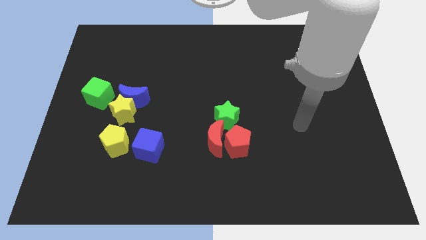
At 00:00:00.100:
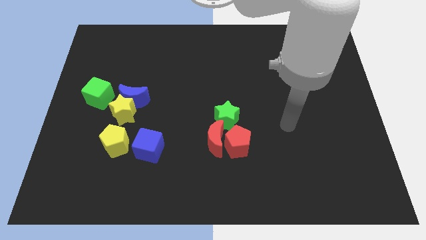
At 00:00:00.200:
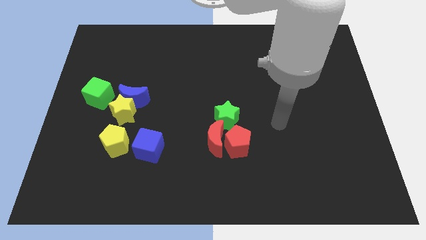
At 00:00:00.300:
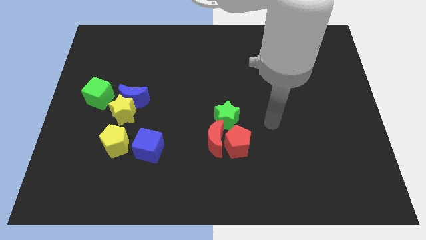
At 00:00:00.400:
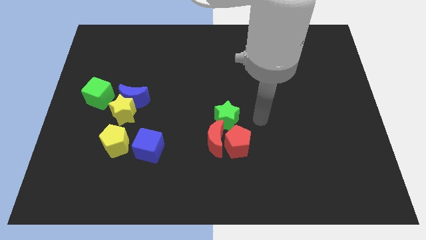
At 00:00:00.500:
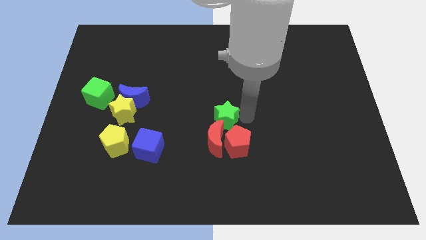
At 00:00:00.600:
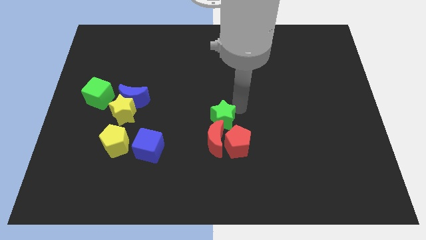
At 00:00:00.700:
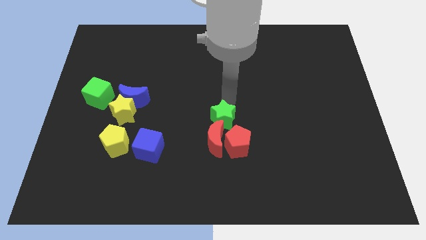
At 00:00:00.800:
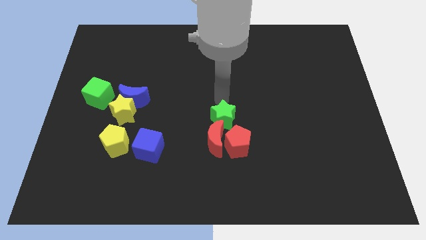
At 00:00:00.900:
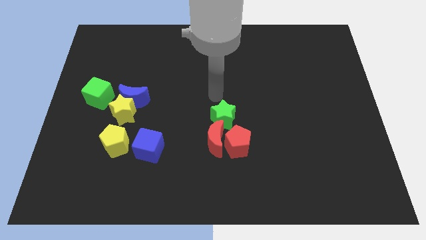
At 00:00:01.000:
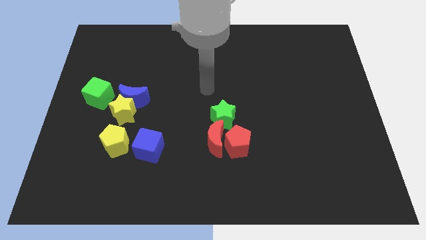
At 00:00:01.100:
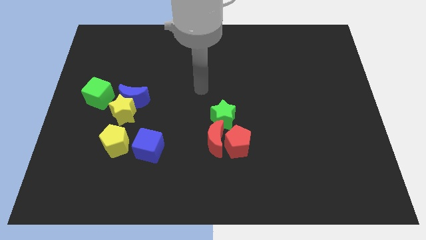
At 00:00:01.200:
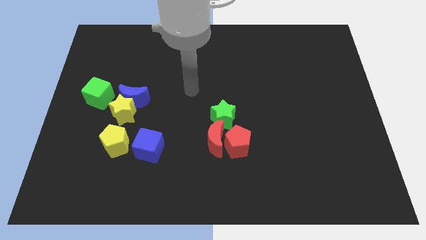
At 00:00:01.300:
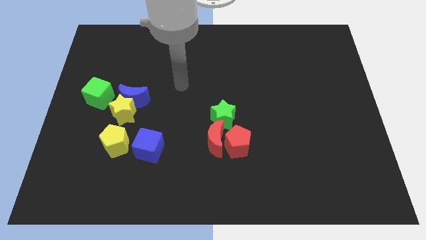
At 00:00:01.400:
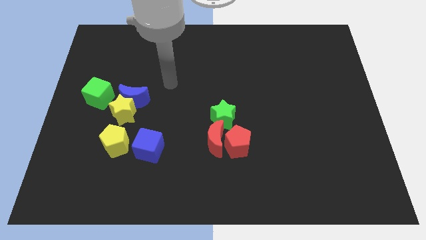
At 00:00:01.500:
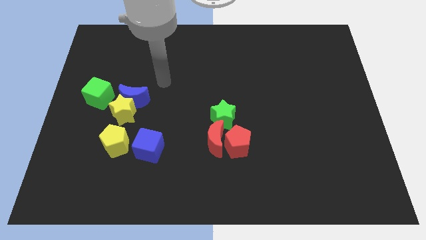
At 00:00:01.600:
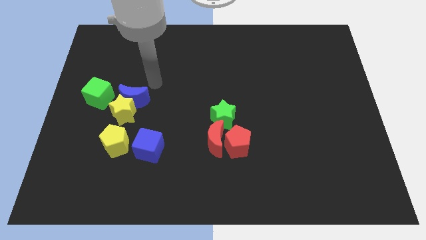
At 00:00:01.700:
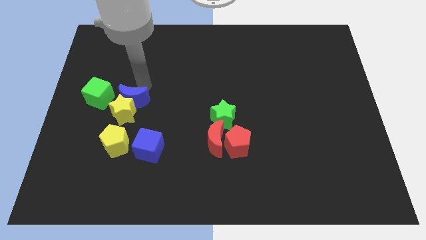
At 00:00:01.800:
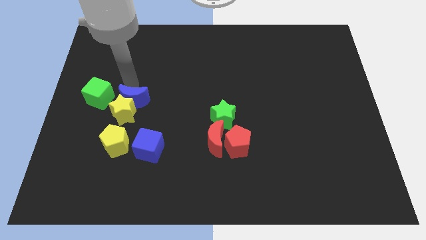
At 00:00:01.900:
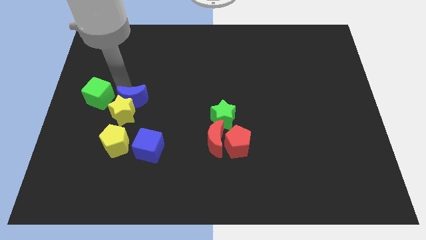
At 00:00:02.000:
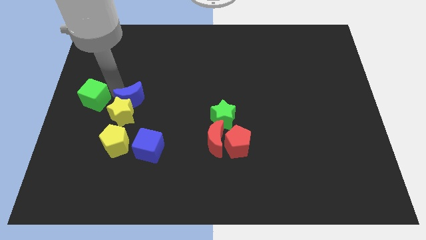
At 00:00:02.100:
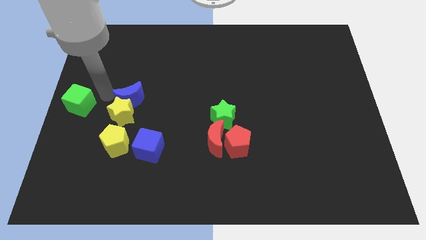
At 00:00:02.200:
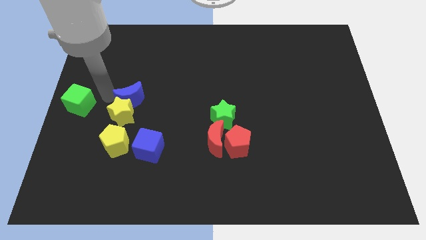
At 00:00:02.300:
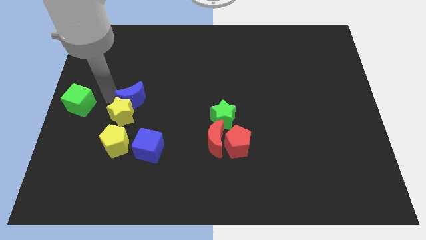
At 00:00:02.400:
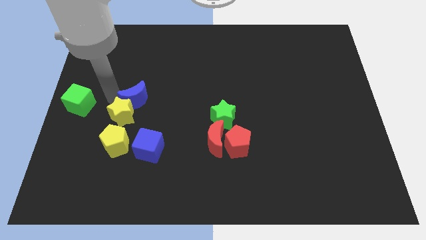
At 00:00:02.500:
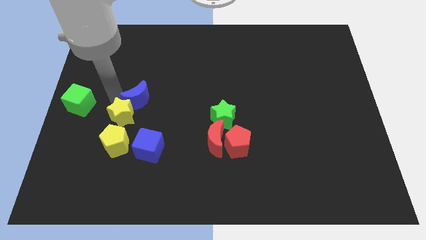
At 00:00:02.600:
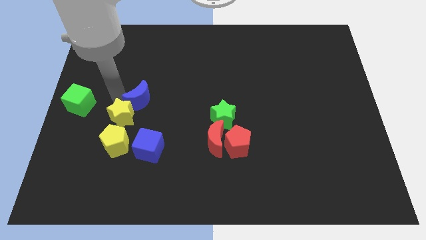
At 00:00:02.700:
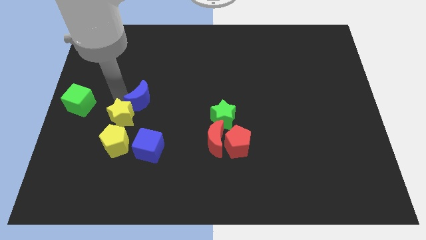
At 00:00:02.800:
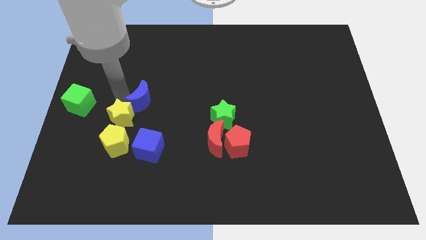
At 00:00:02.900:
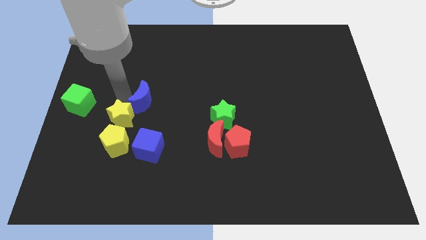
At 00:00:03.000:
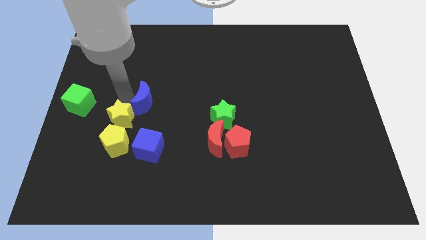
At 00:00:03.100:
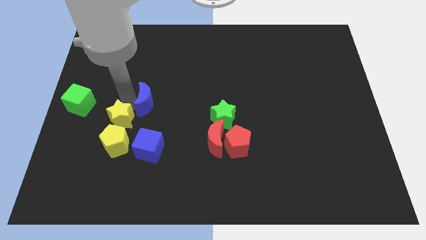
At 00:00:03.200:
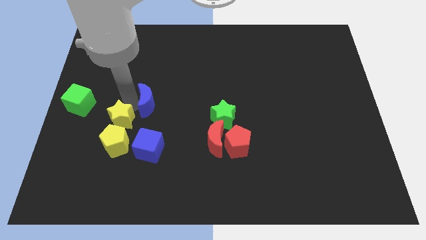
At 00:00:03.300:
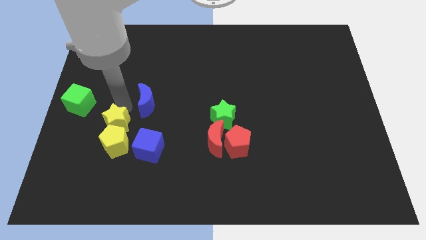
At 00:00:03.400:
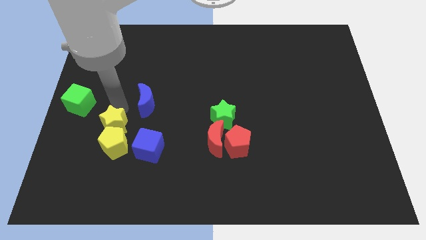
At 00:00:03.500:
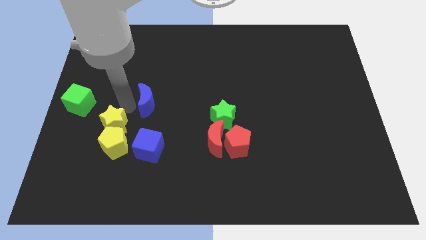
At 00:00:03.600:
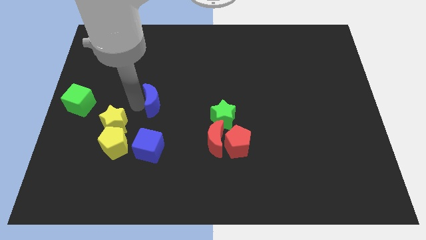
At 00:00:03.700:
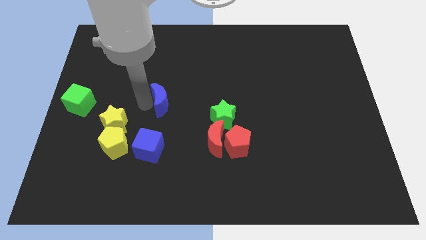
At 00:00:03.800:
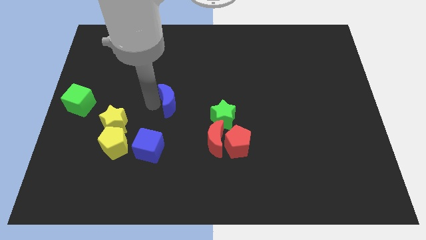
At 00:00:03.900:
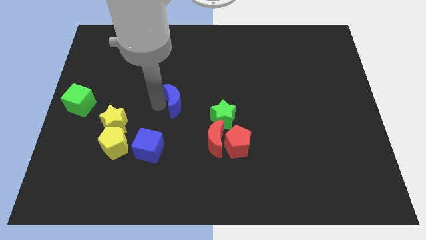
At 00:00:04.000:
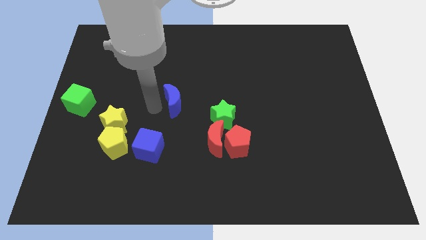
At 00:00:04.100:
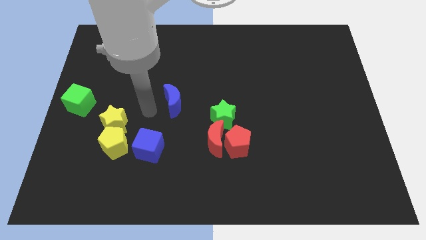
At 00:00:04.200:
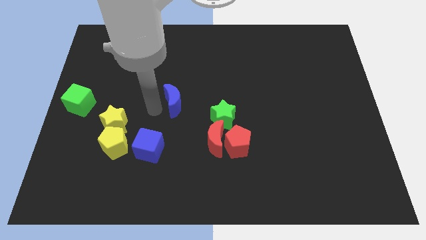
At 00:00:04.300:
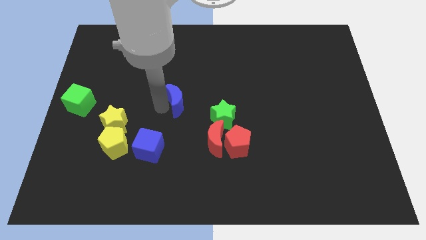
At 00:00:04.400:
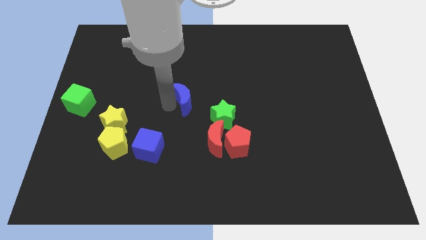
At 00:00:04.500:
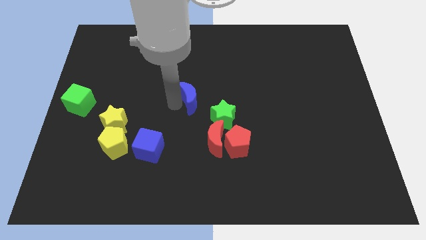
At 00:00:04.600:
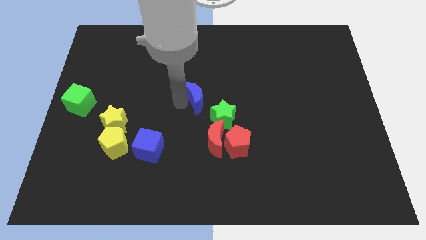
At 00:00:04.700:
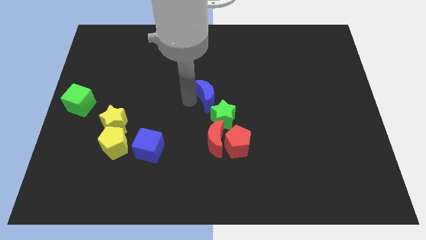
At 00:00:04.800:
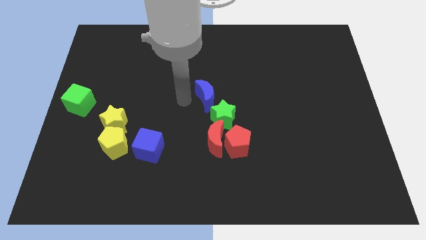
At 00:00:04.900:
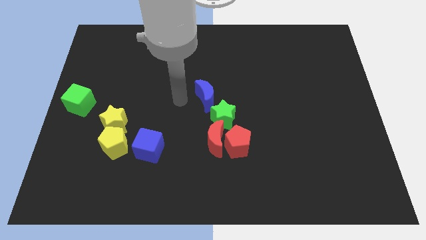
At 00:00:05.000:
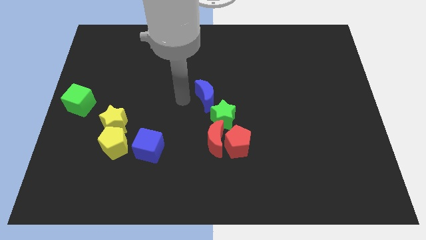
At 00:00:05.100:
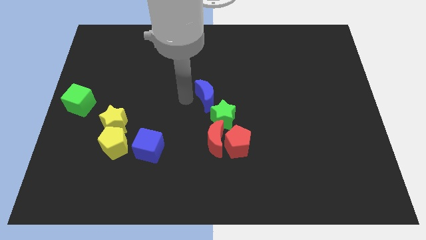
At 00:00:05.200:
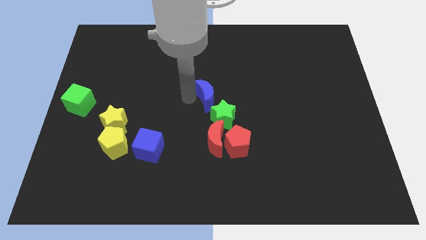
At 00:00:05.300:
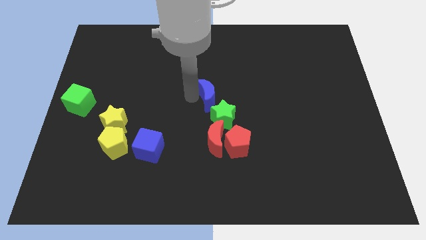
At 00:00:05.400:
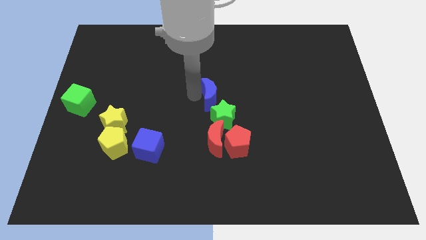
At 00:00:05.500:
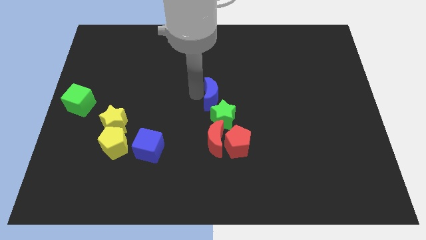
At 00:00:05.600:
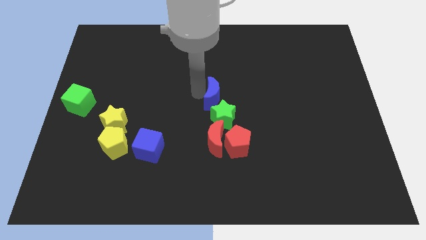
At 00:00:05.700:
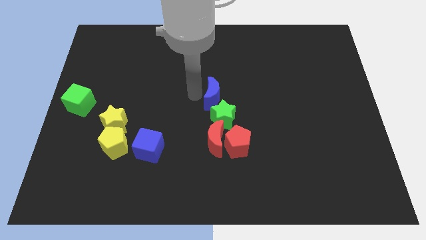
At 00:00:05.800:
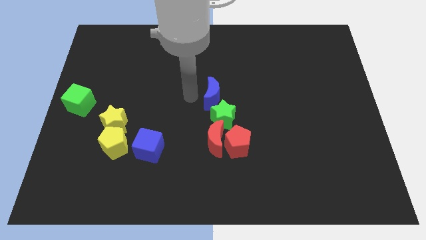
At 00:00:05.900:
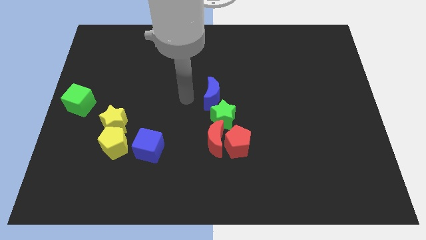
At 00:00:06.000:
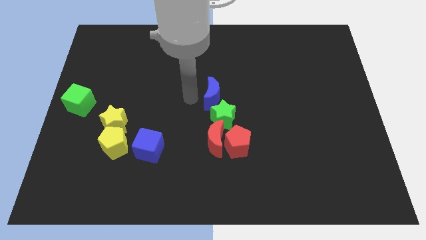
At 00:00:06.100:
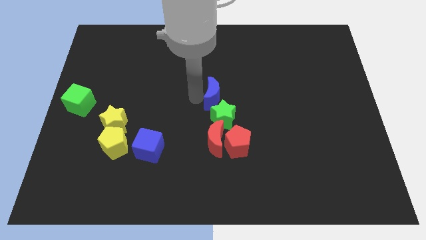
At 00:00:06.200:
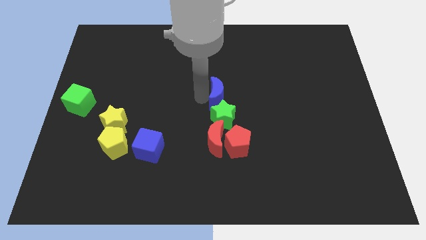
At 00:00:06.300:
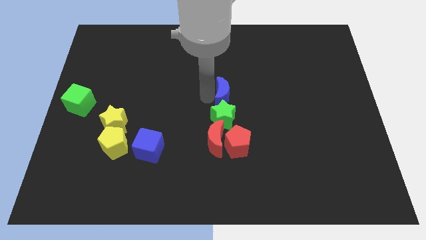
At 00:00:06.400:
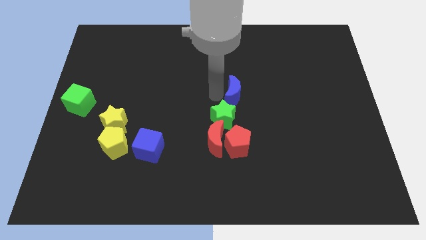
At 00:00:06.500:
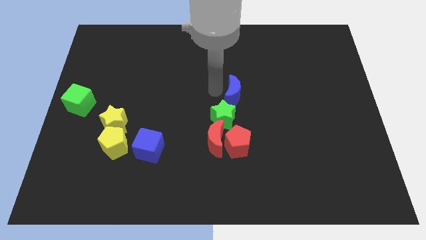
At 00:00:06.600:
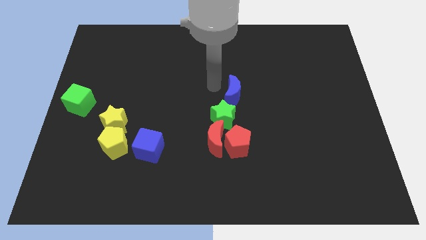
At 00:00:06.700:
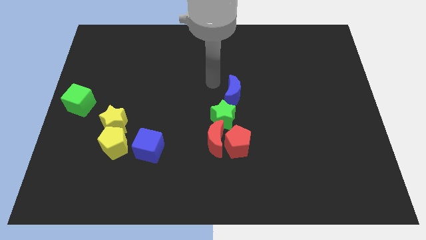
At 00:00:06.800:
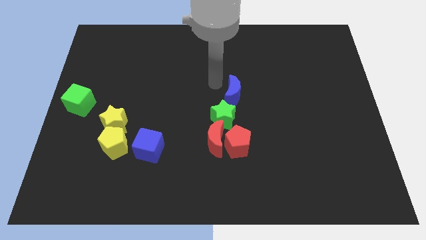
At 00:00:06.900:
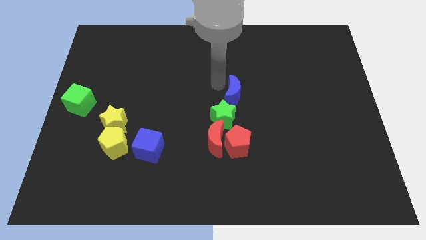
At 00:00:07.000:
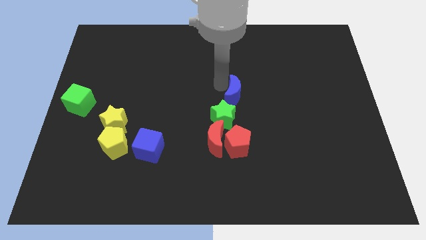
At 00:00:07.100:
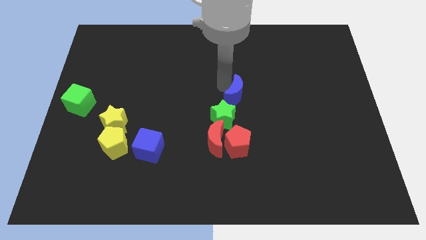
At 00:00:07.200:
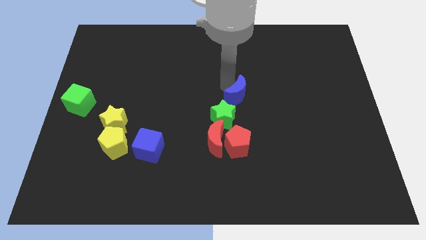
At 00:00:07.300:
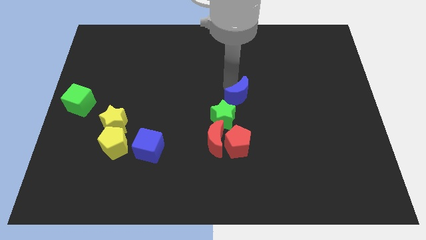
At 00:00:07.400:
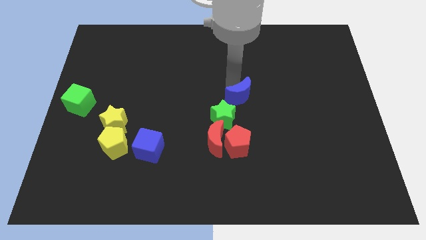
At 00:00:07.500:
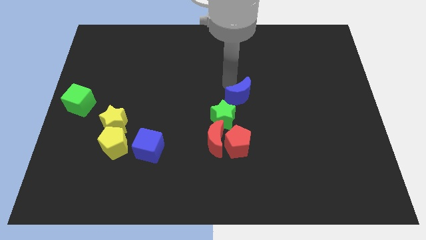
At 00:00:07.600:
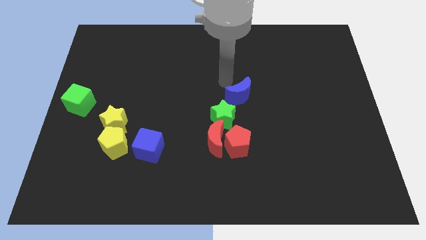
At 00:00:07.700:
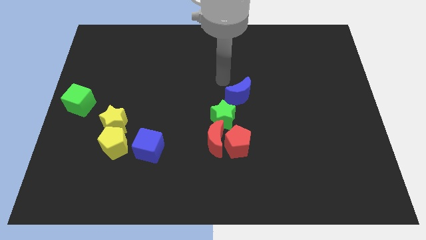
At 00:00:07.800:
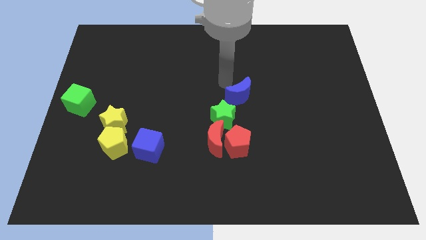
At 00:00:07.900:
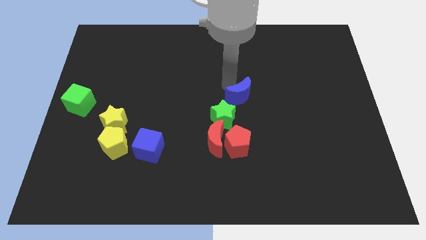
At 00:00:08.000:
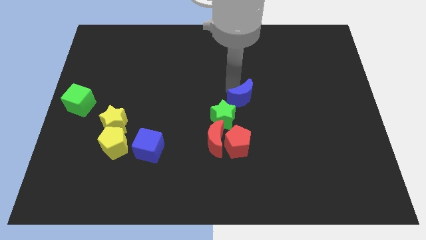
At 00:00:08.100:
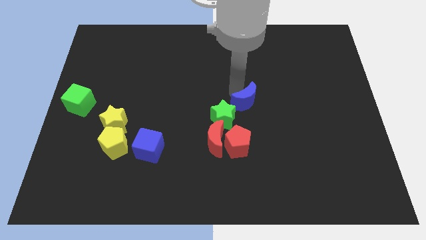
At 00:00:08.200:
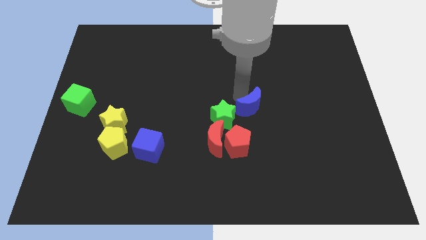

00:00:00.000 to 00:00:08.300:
put the blue moon to the right side of the green star
